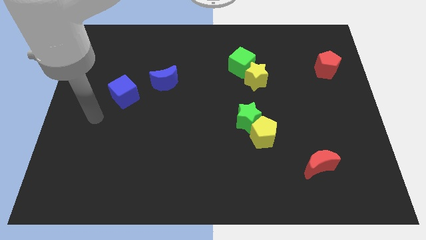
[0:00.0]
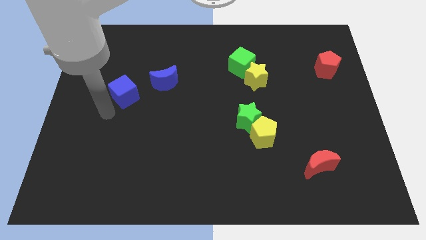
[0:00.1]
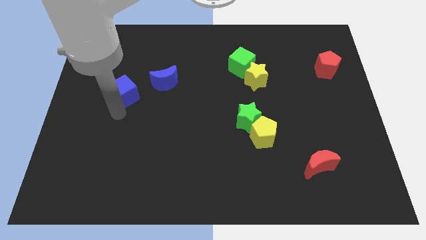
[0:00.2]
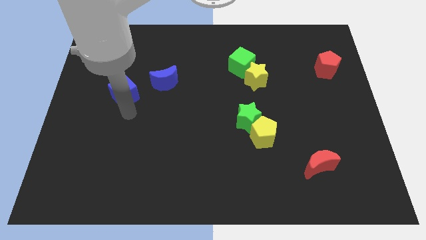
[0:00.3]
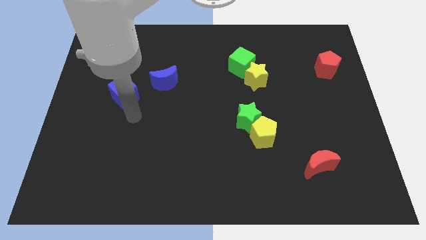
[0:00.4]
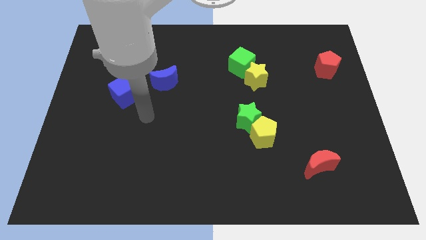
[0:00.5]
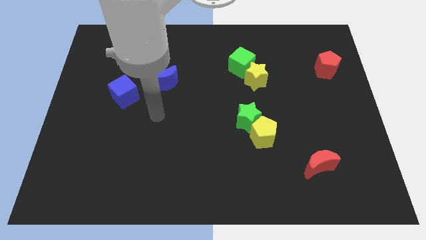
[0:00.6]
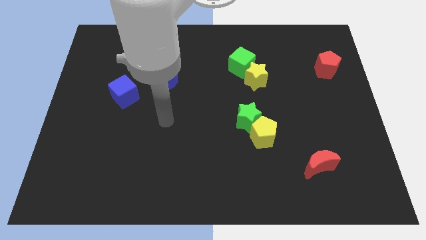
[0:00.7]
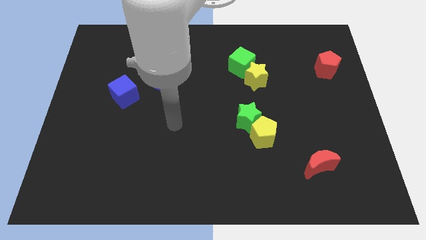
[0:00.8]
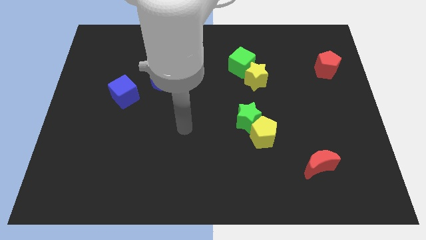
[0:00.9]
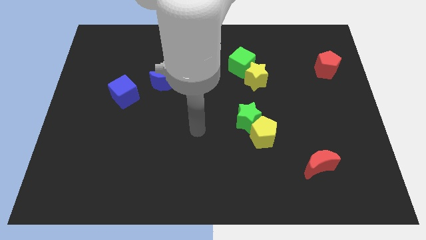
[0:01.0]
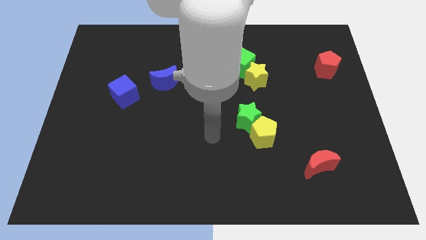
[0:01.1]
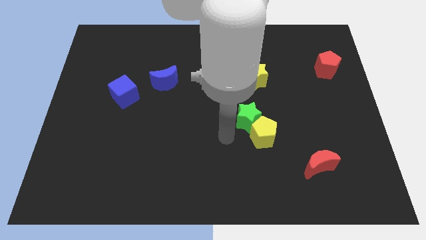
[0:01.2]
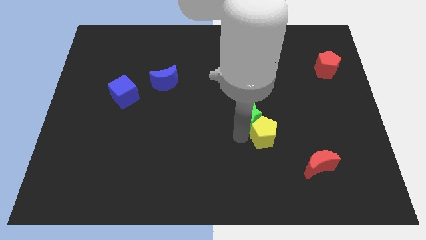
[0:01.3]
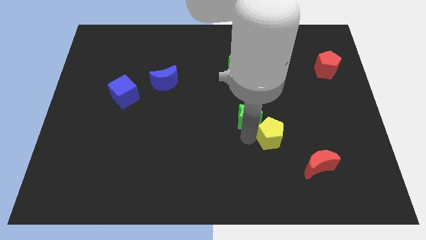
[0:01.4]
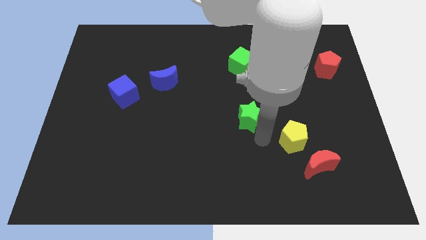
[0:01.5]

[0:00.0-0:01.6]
move the green star away from the yellow pentagon

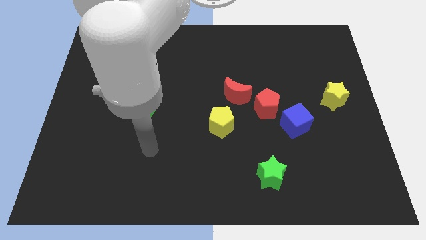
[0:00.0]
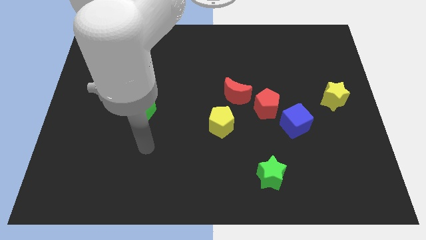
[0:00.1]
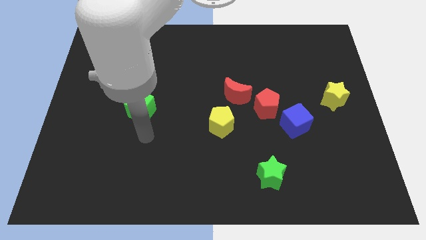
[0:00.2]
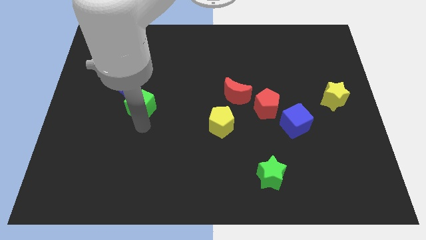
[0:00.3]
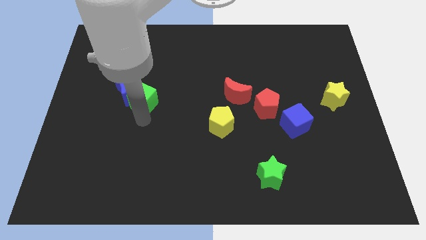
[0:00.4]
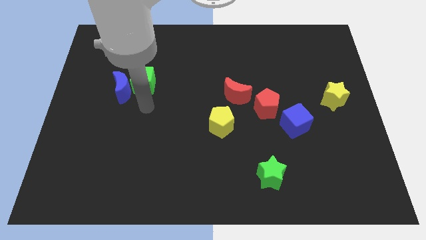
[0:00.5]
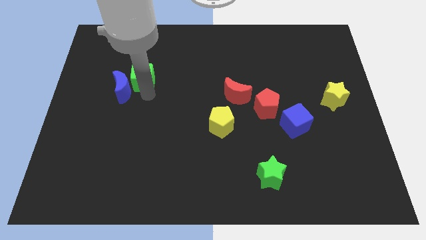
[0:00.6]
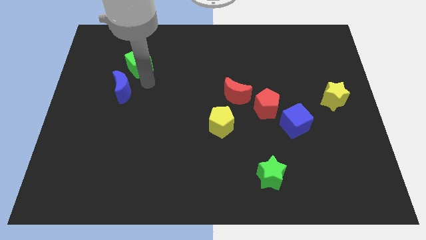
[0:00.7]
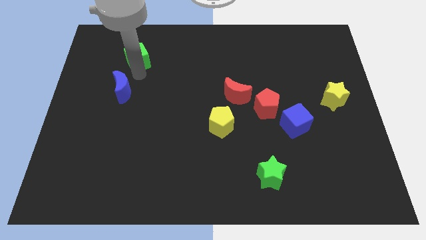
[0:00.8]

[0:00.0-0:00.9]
pull the blue moon apart from the green cube

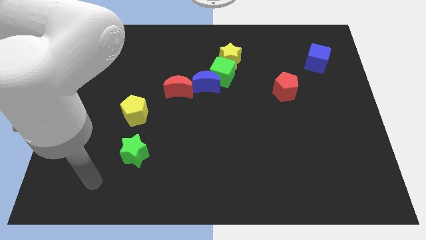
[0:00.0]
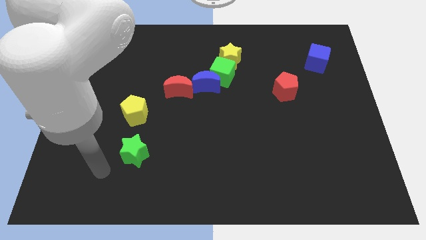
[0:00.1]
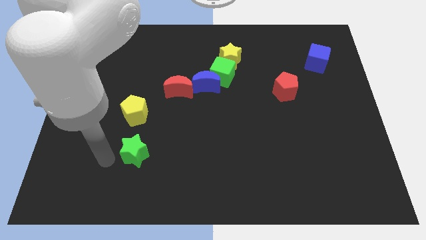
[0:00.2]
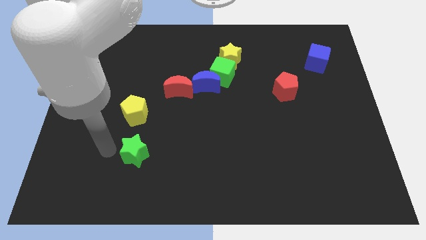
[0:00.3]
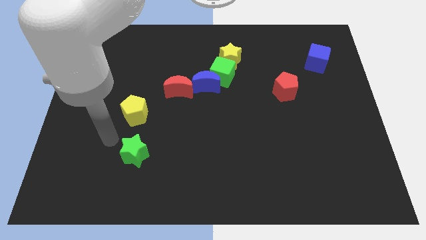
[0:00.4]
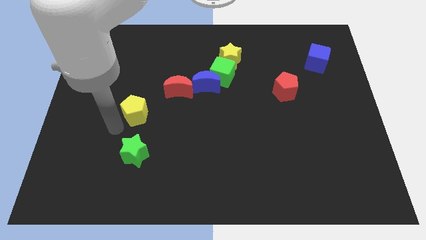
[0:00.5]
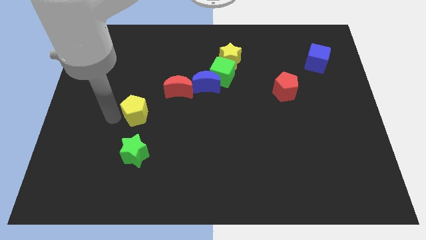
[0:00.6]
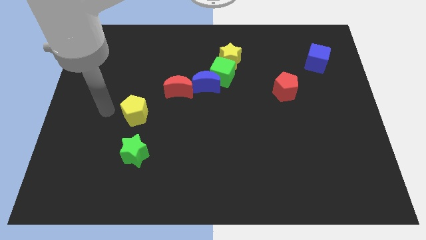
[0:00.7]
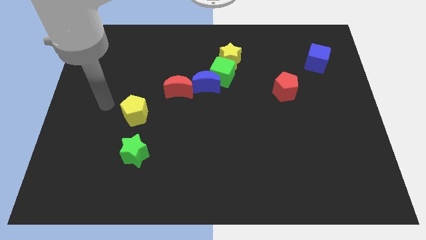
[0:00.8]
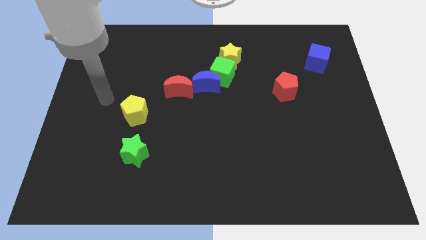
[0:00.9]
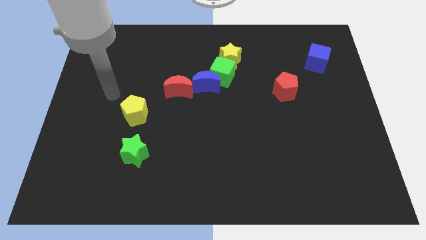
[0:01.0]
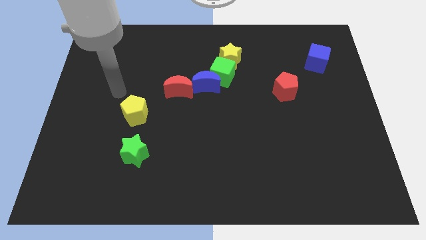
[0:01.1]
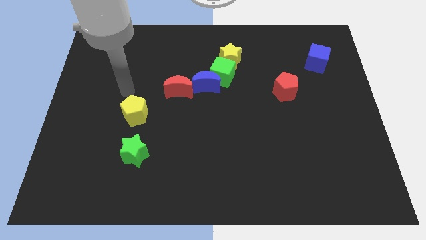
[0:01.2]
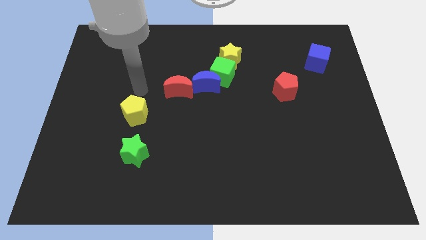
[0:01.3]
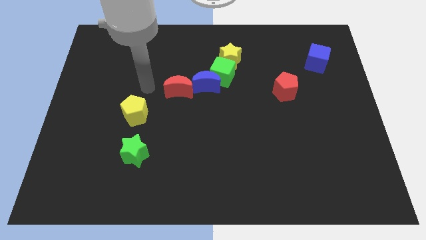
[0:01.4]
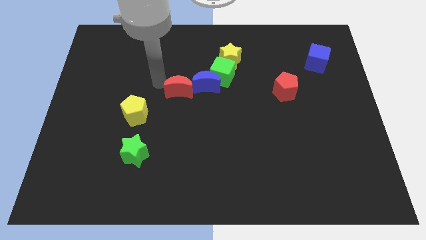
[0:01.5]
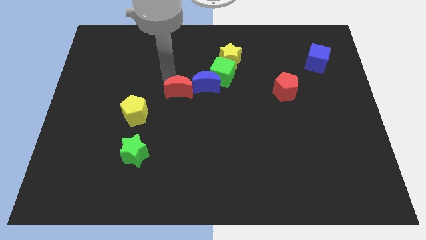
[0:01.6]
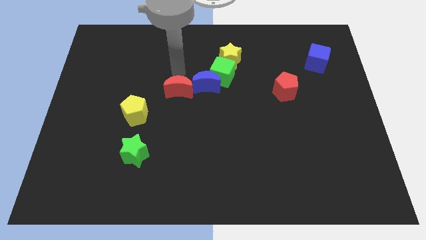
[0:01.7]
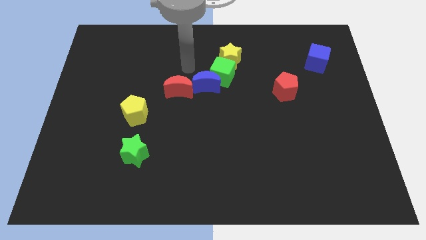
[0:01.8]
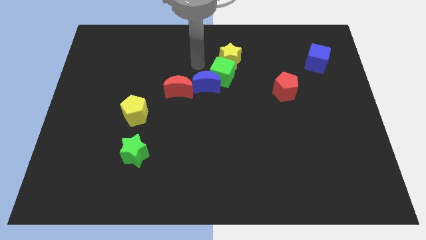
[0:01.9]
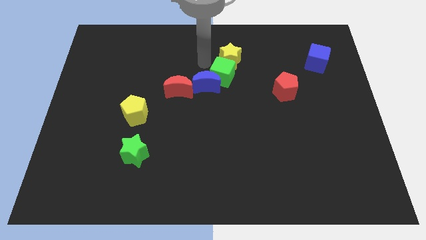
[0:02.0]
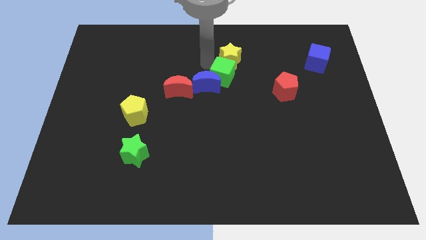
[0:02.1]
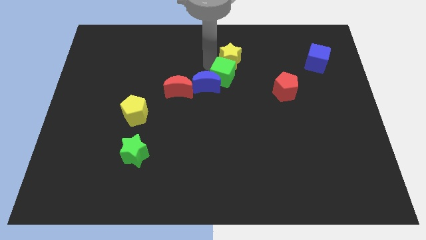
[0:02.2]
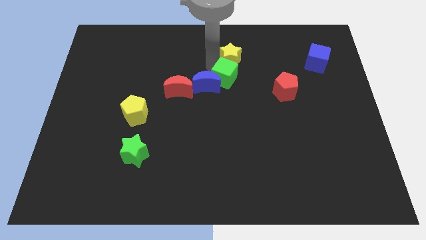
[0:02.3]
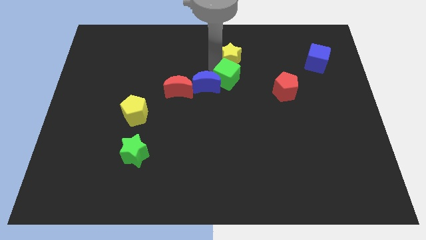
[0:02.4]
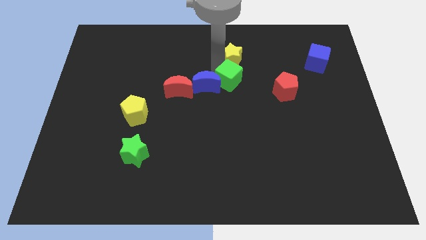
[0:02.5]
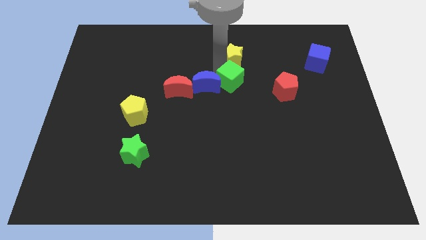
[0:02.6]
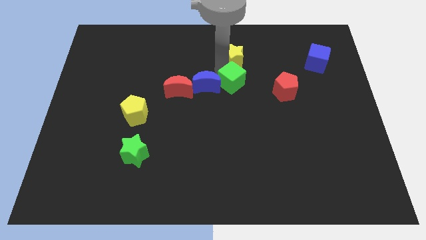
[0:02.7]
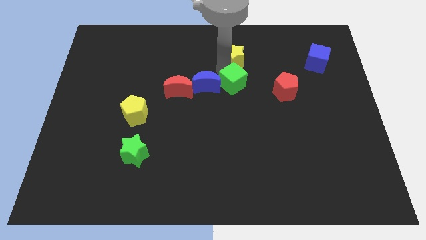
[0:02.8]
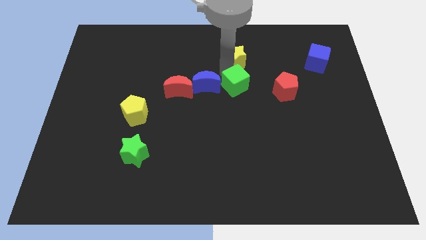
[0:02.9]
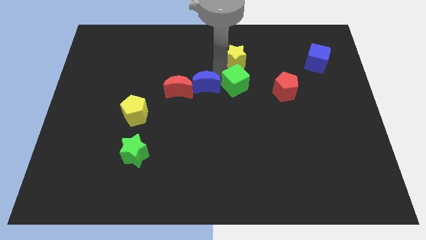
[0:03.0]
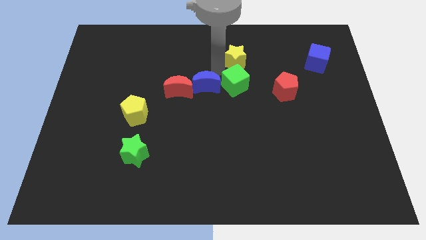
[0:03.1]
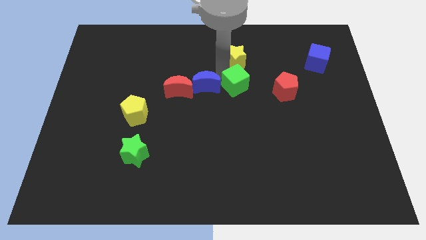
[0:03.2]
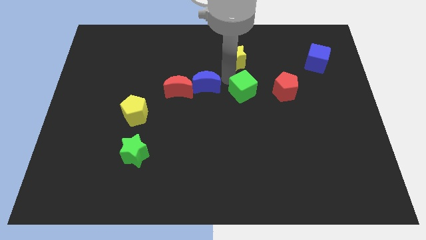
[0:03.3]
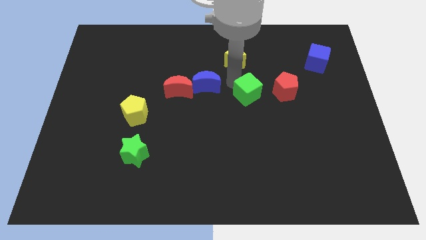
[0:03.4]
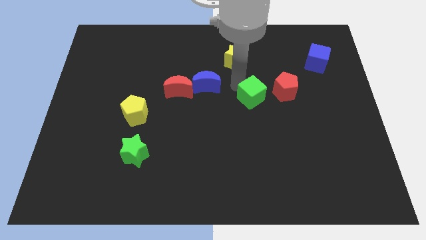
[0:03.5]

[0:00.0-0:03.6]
separate the green cube from the blue moon and yellow star

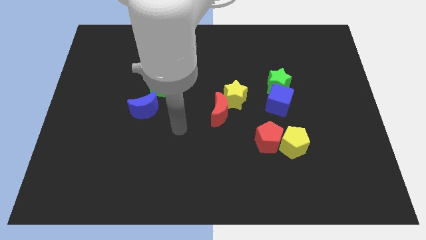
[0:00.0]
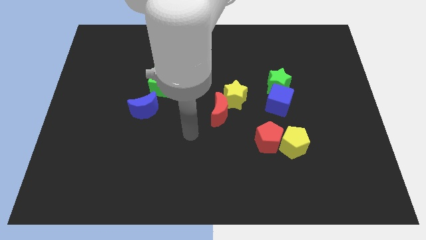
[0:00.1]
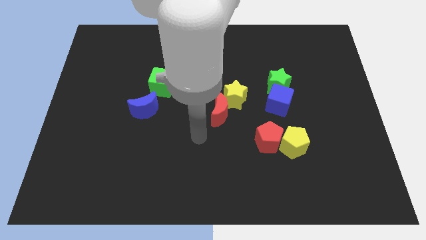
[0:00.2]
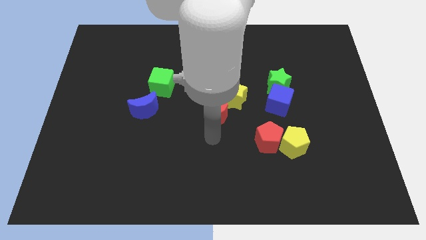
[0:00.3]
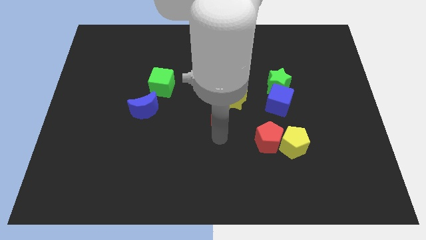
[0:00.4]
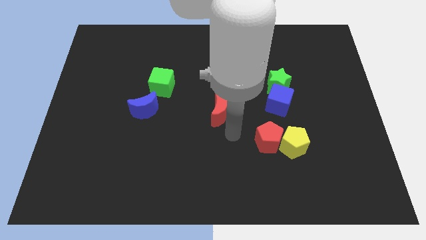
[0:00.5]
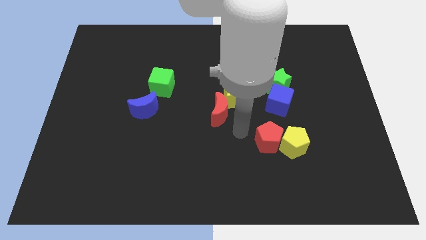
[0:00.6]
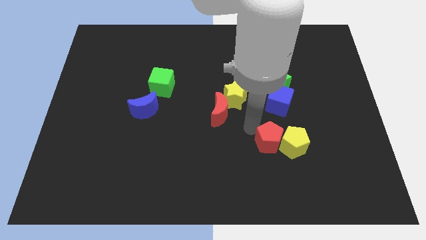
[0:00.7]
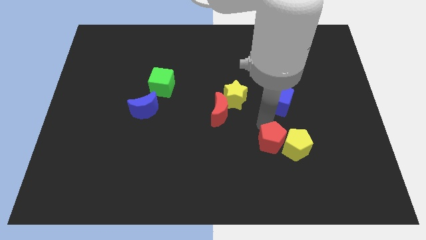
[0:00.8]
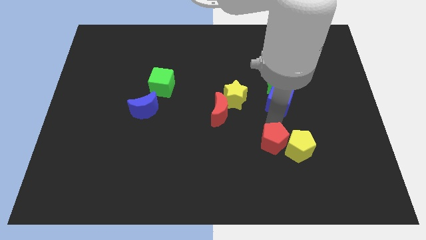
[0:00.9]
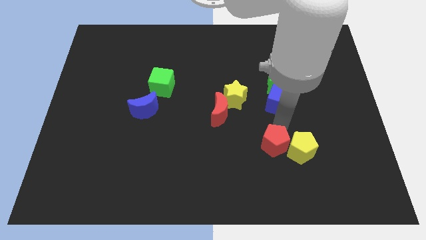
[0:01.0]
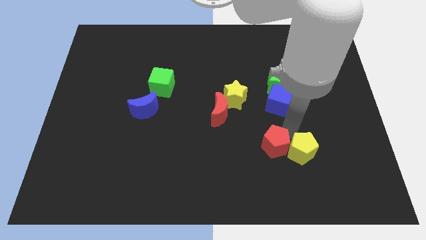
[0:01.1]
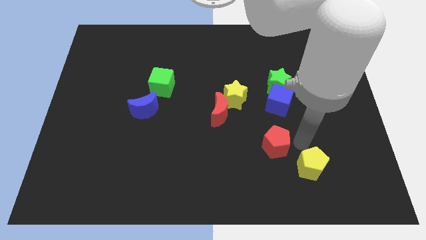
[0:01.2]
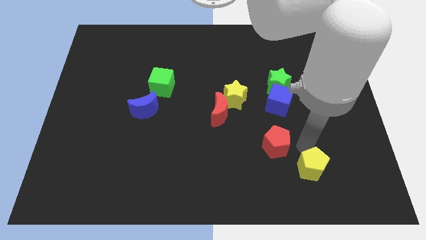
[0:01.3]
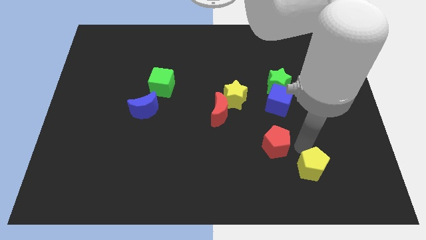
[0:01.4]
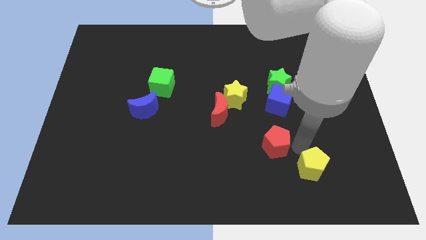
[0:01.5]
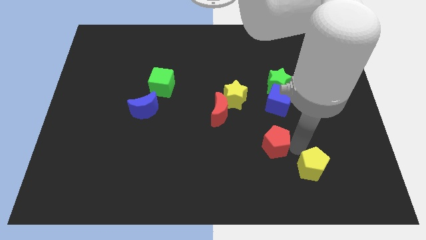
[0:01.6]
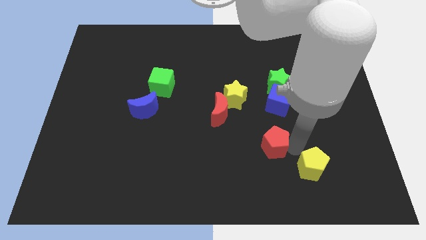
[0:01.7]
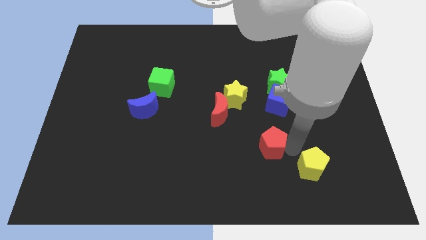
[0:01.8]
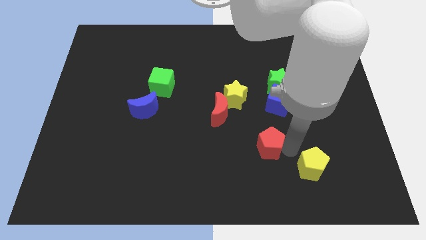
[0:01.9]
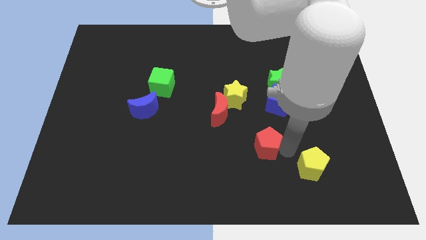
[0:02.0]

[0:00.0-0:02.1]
move the red pentagon away from the yellow pentagon

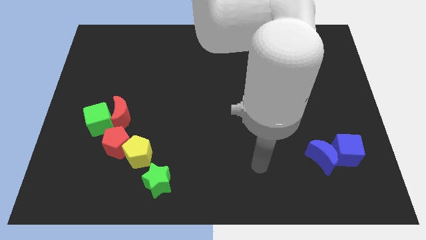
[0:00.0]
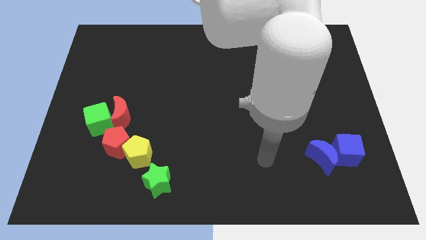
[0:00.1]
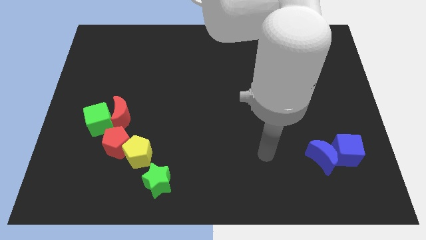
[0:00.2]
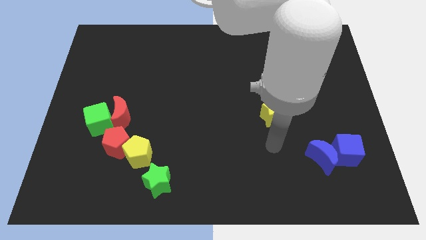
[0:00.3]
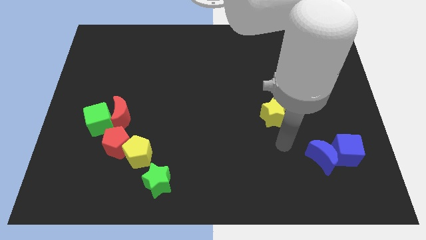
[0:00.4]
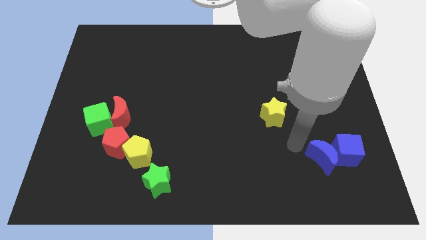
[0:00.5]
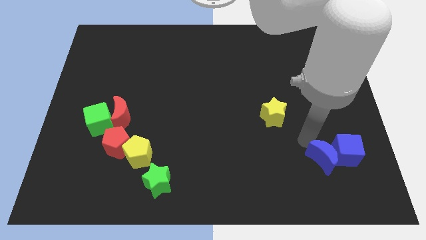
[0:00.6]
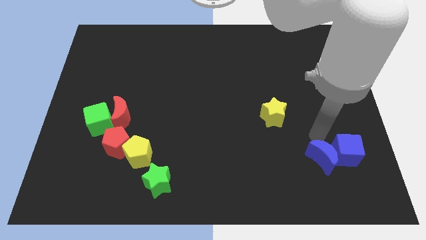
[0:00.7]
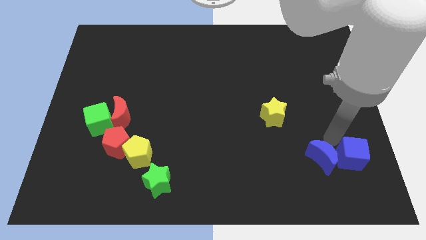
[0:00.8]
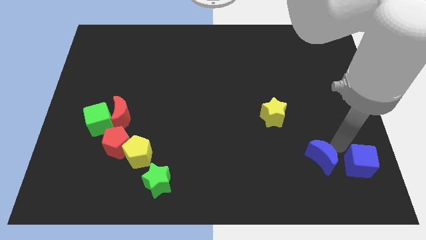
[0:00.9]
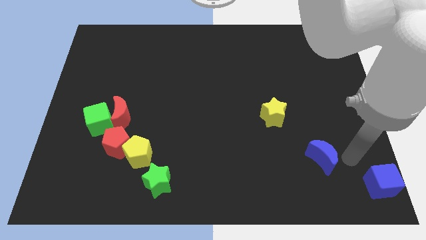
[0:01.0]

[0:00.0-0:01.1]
move the blue moon away from the blue cube
